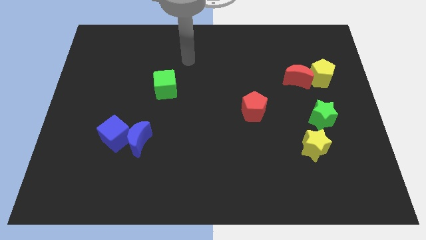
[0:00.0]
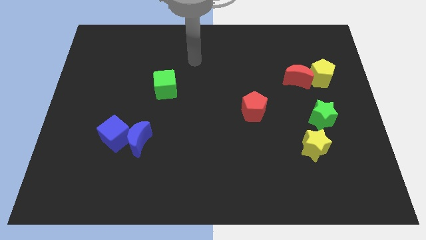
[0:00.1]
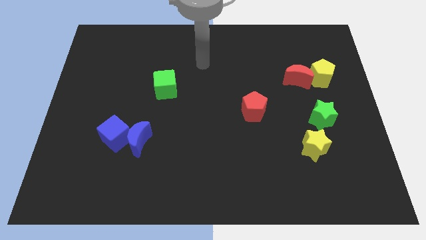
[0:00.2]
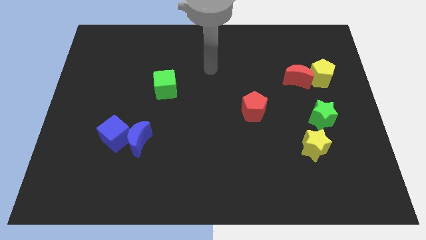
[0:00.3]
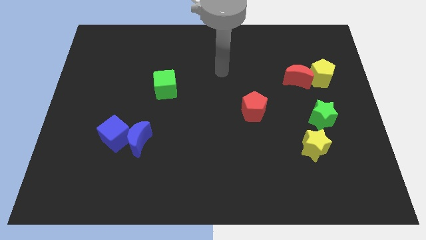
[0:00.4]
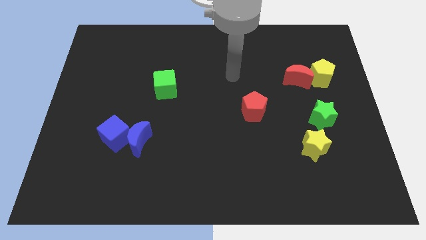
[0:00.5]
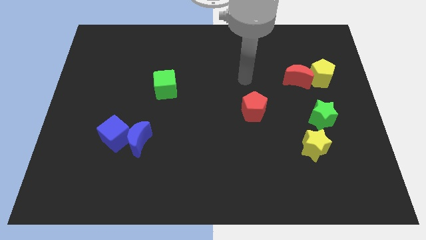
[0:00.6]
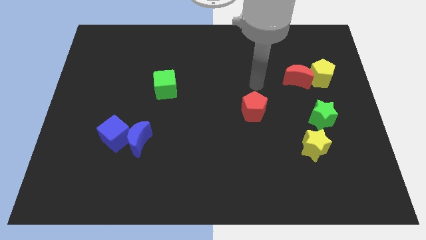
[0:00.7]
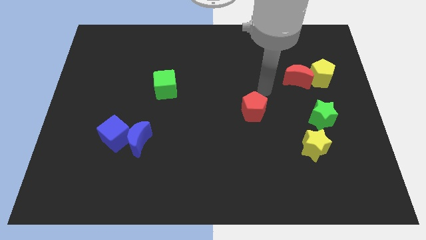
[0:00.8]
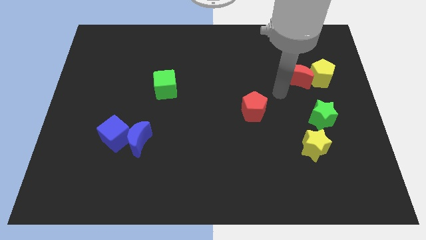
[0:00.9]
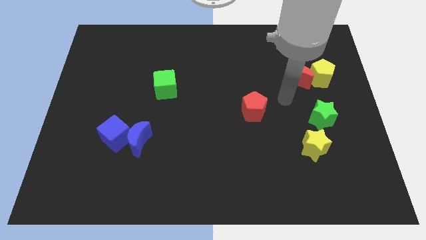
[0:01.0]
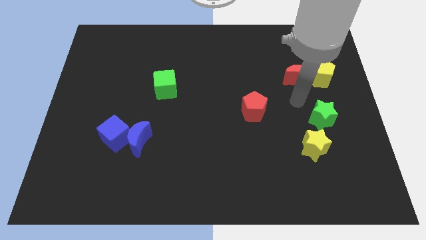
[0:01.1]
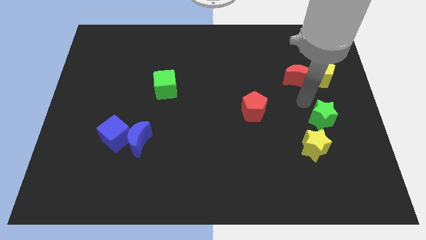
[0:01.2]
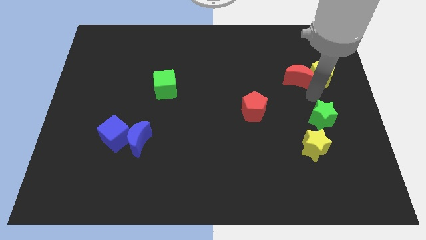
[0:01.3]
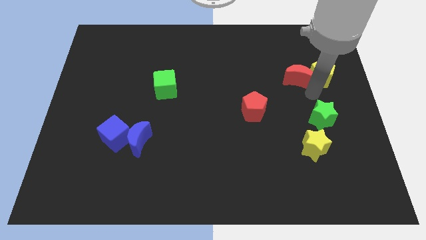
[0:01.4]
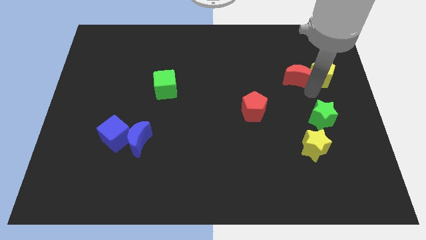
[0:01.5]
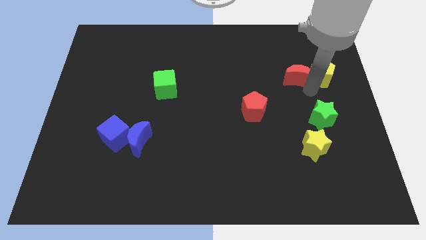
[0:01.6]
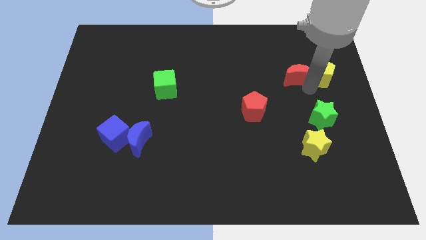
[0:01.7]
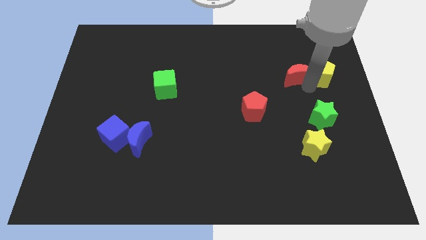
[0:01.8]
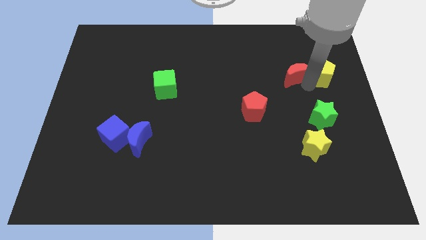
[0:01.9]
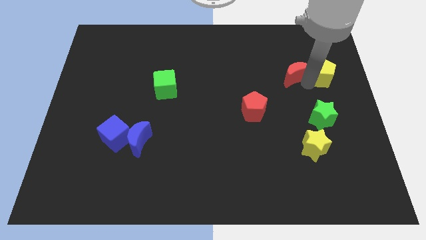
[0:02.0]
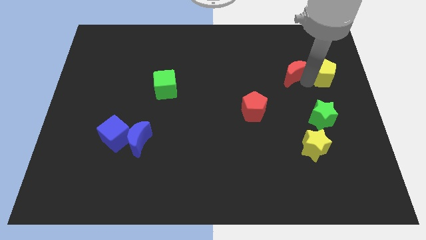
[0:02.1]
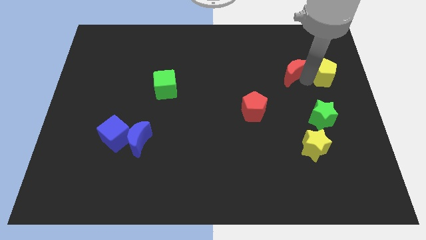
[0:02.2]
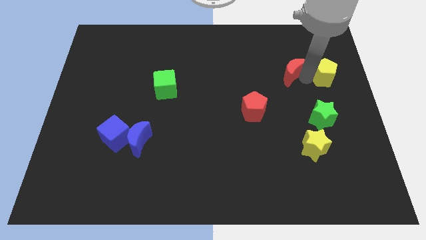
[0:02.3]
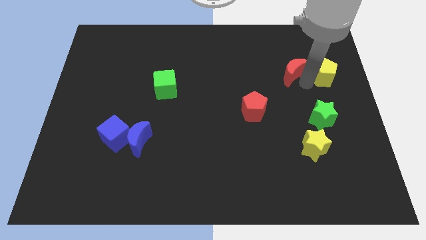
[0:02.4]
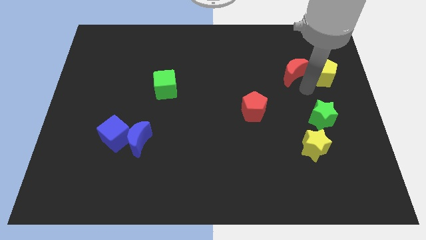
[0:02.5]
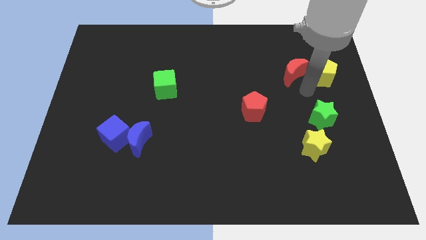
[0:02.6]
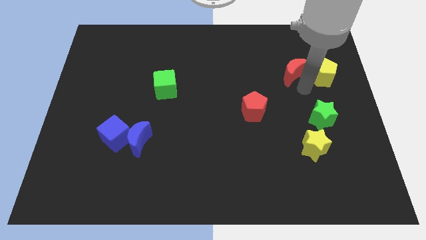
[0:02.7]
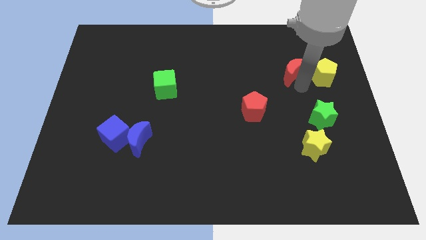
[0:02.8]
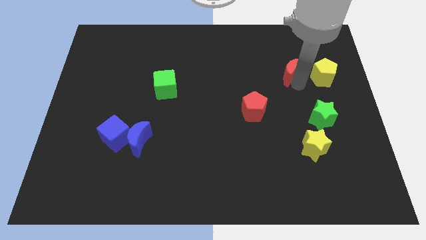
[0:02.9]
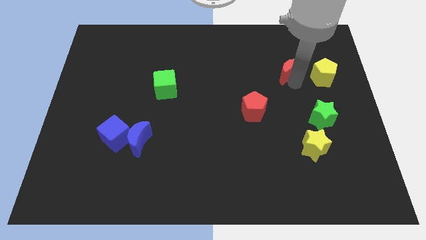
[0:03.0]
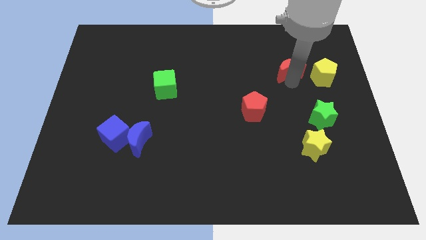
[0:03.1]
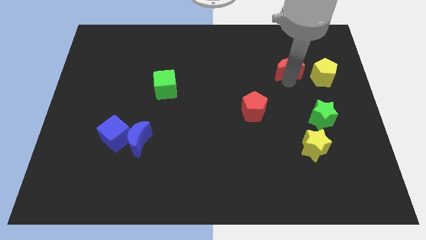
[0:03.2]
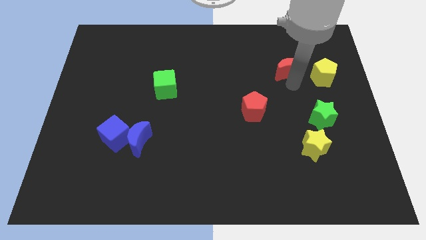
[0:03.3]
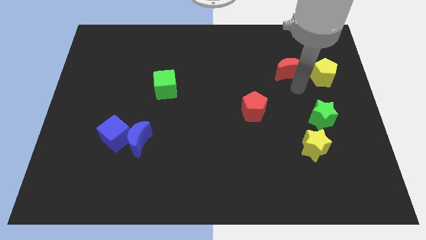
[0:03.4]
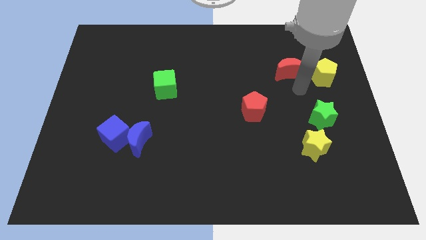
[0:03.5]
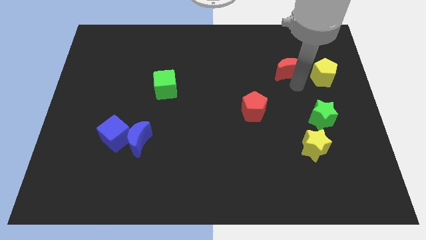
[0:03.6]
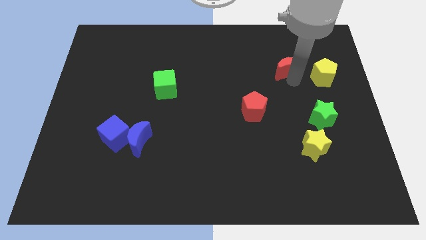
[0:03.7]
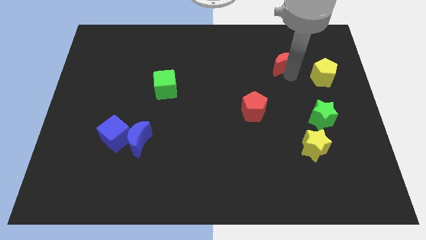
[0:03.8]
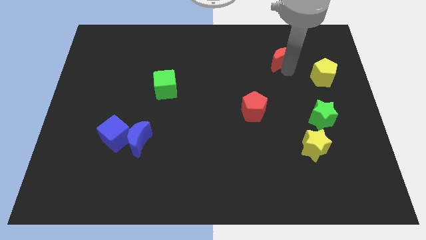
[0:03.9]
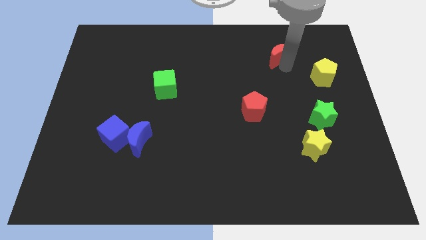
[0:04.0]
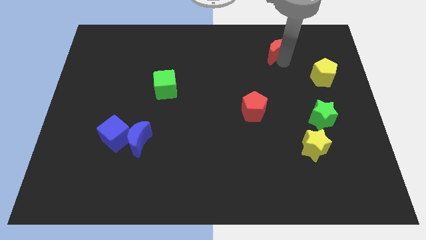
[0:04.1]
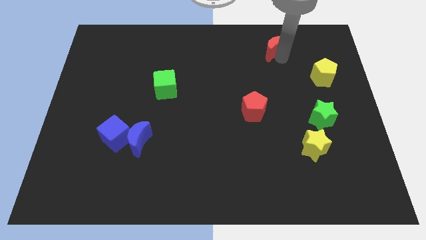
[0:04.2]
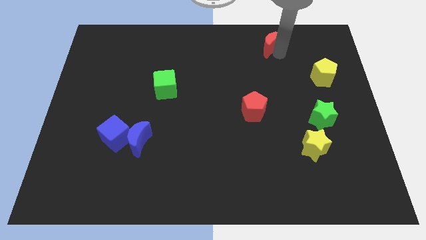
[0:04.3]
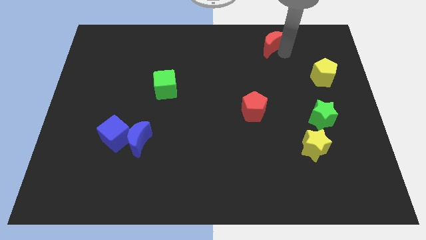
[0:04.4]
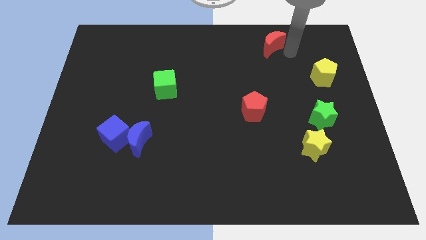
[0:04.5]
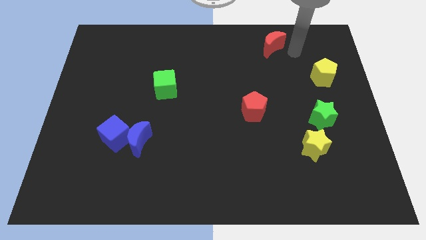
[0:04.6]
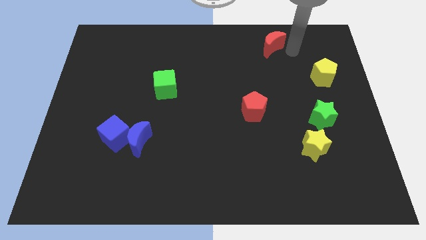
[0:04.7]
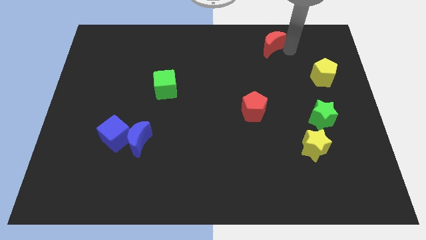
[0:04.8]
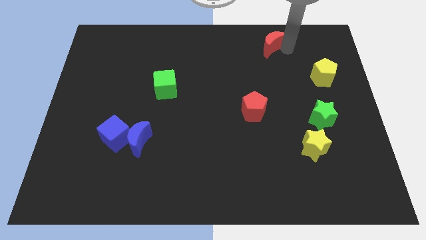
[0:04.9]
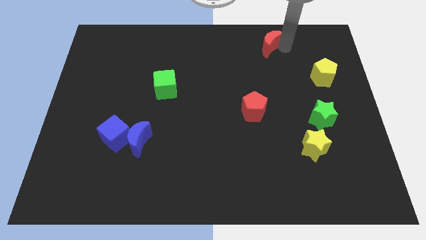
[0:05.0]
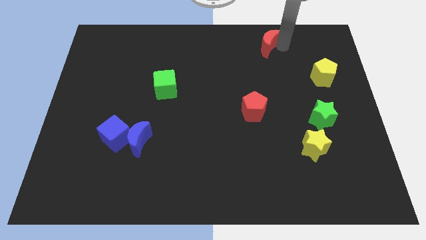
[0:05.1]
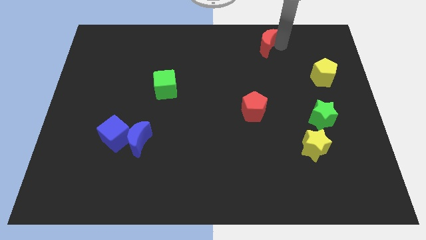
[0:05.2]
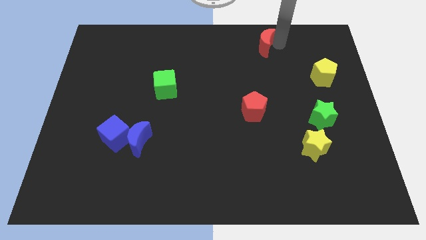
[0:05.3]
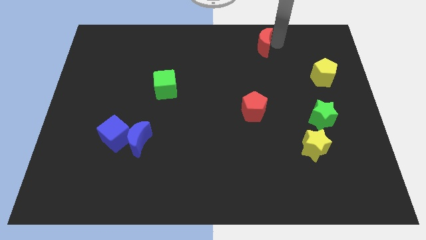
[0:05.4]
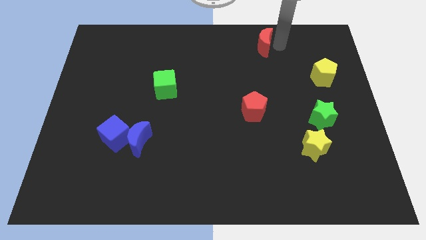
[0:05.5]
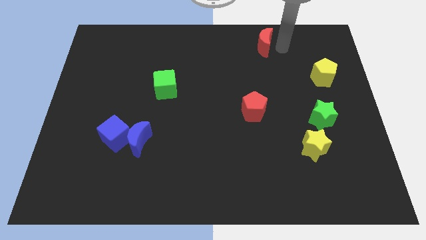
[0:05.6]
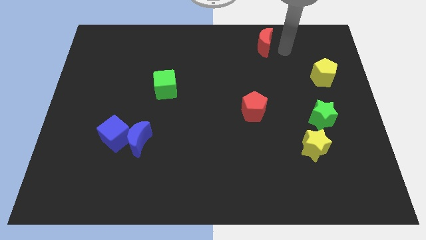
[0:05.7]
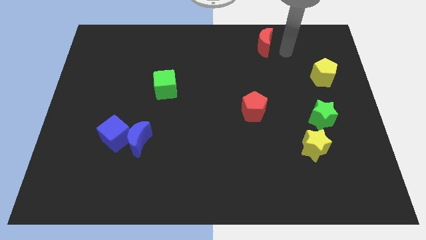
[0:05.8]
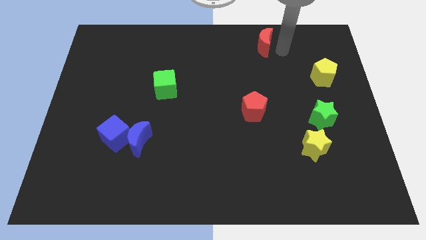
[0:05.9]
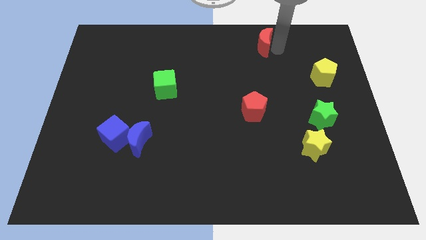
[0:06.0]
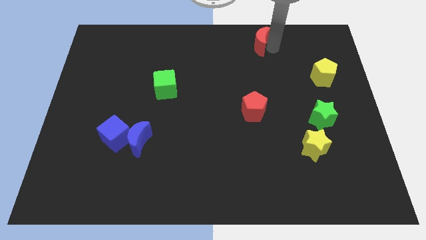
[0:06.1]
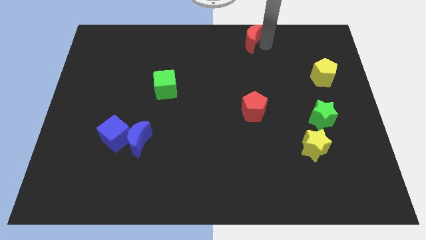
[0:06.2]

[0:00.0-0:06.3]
push the red moon to the top
